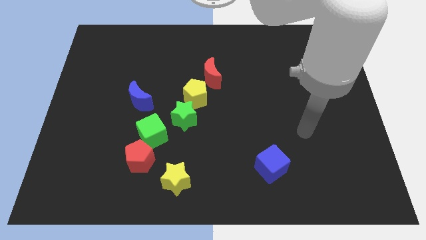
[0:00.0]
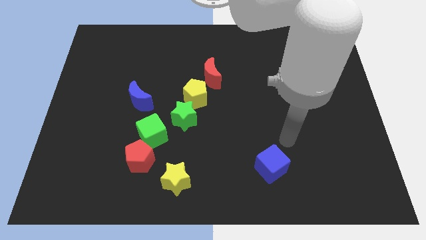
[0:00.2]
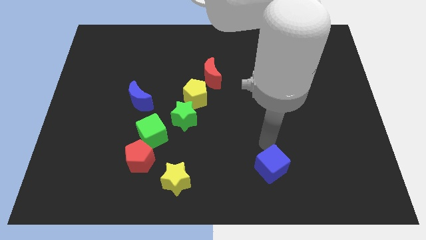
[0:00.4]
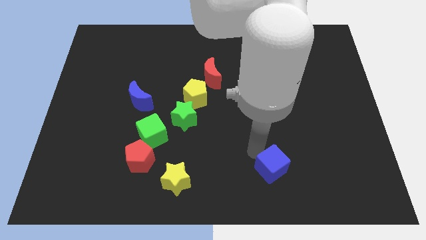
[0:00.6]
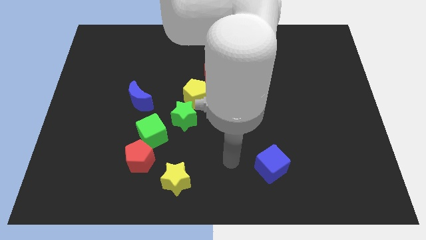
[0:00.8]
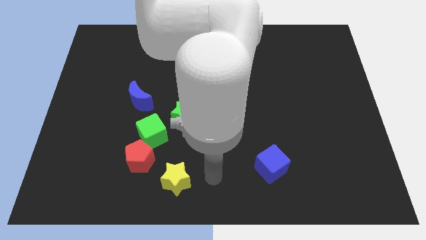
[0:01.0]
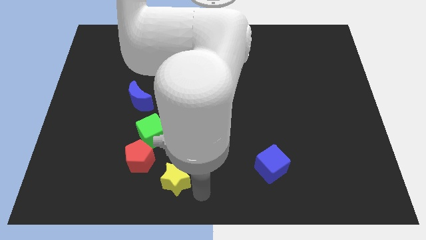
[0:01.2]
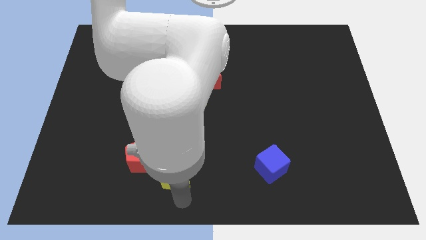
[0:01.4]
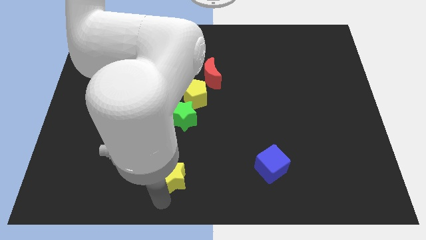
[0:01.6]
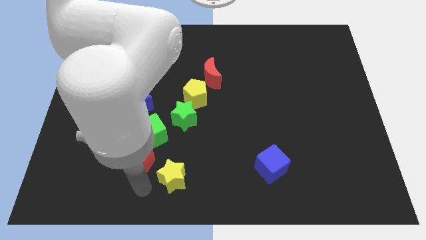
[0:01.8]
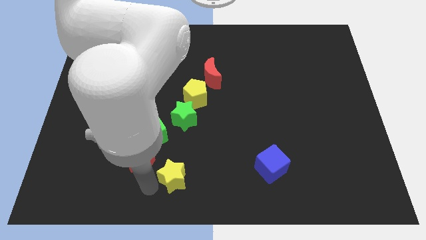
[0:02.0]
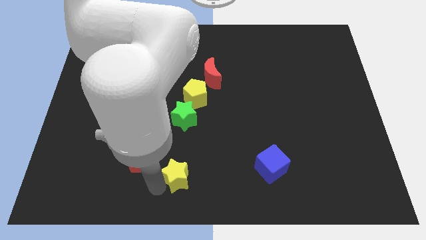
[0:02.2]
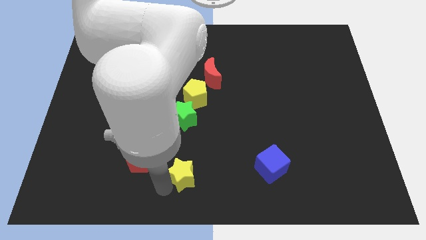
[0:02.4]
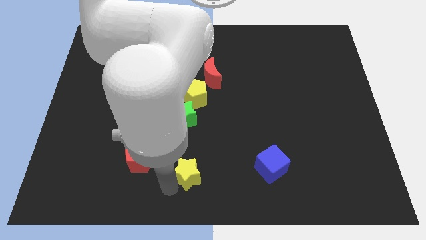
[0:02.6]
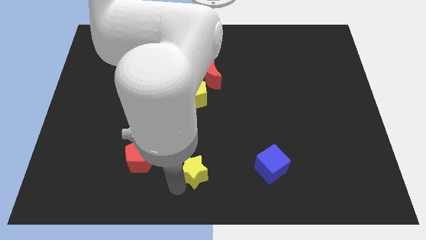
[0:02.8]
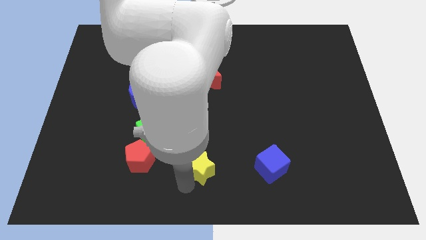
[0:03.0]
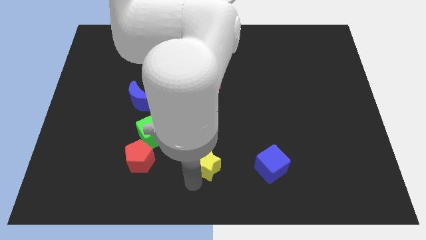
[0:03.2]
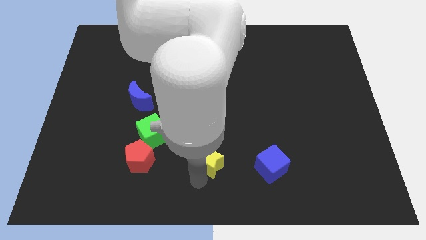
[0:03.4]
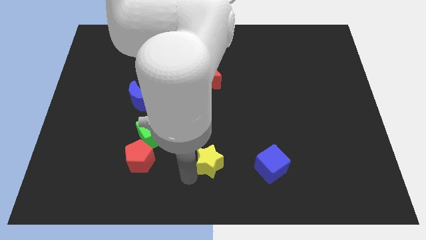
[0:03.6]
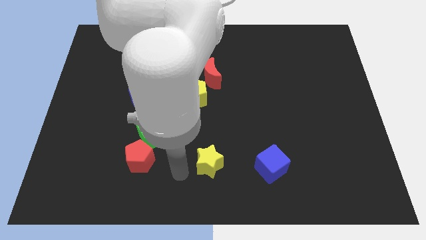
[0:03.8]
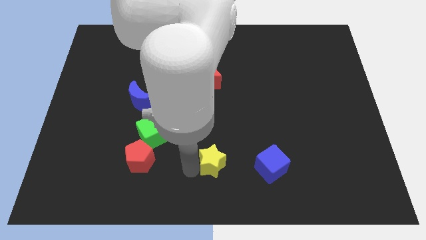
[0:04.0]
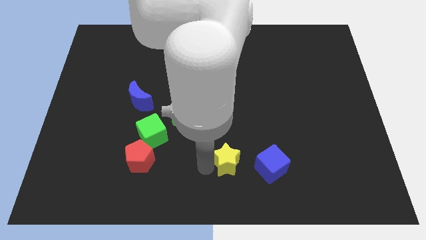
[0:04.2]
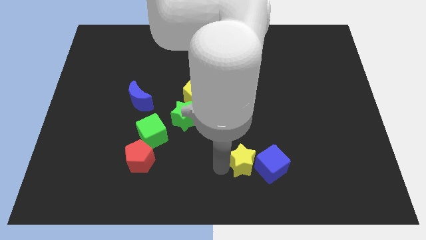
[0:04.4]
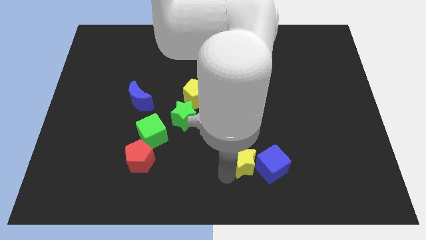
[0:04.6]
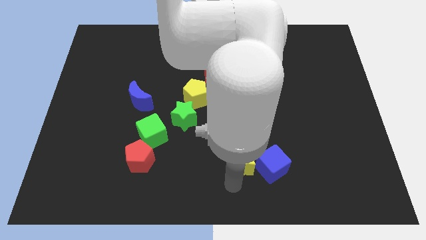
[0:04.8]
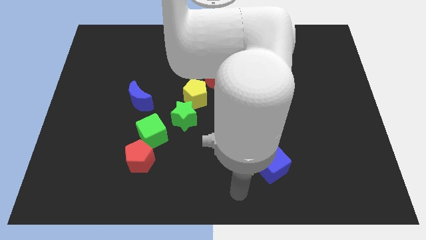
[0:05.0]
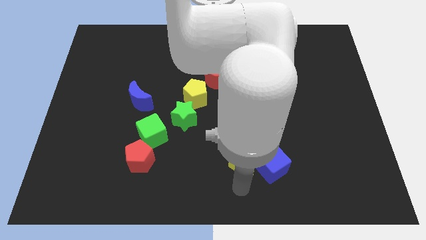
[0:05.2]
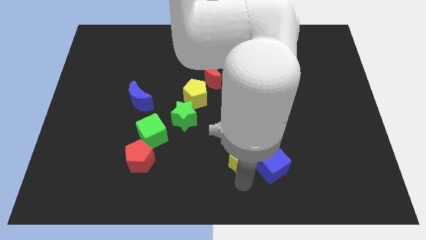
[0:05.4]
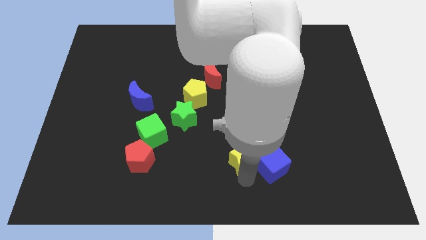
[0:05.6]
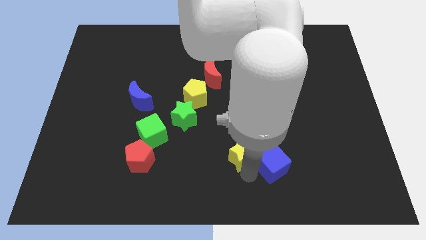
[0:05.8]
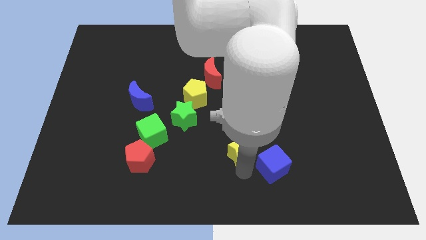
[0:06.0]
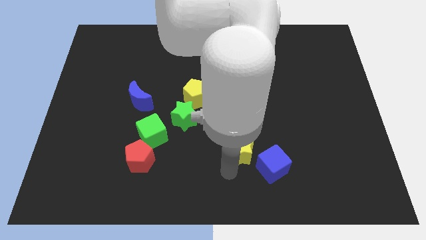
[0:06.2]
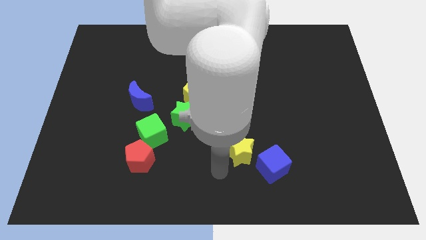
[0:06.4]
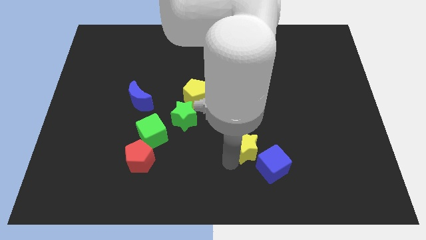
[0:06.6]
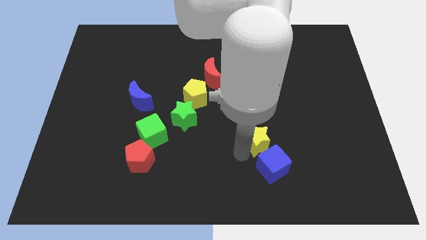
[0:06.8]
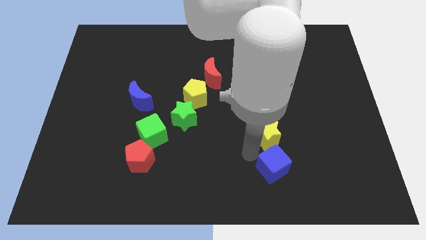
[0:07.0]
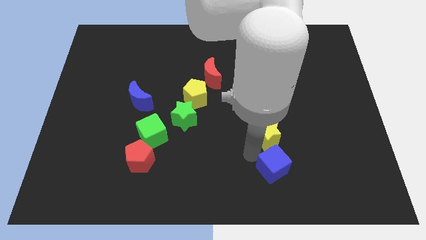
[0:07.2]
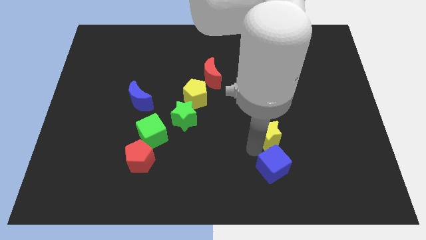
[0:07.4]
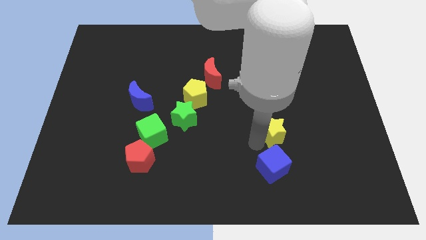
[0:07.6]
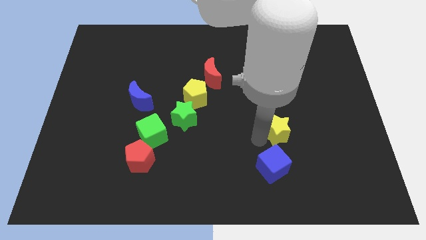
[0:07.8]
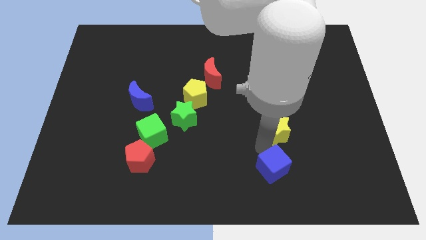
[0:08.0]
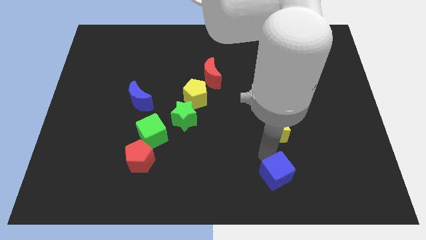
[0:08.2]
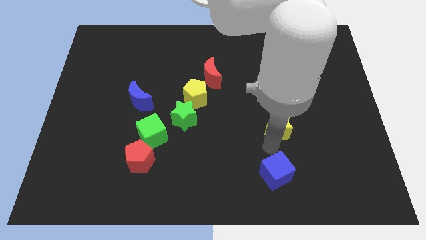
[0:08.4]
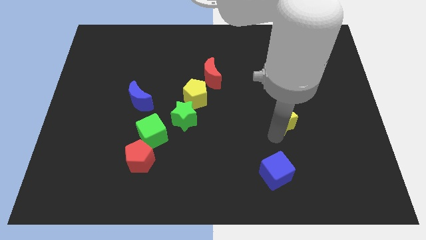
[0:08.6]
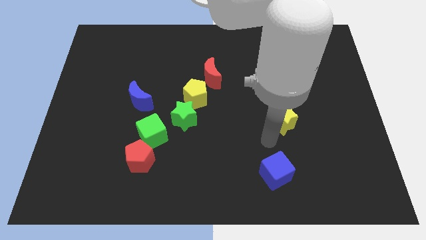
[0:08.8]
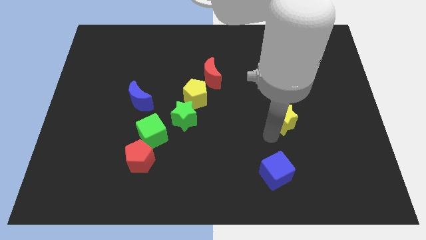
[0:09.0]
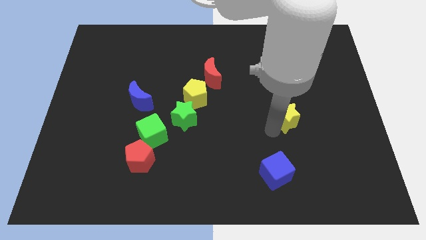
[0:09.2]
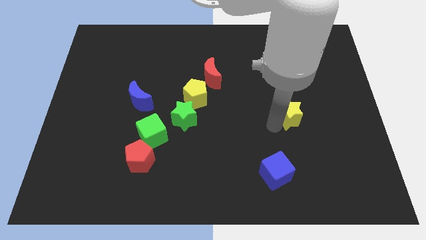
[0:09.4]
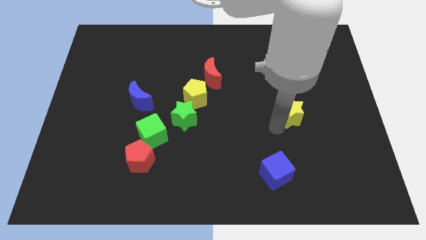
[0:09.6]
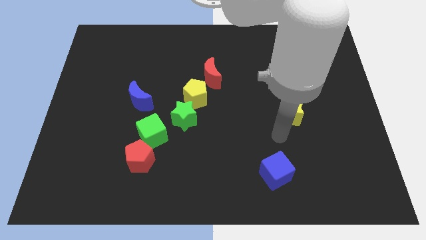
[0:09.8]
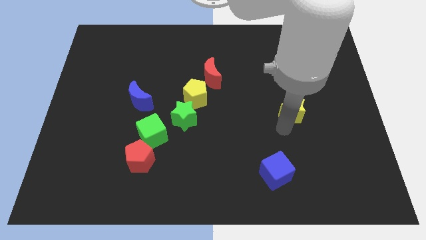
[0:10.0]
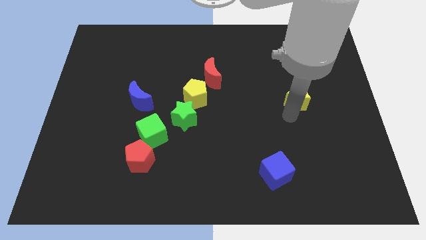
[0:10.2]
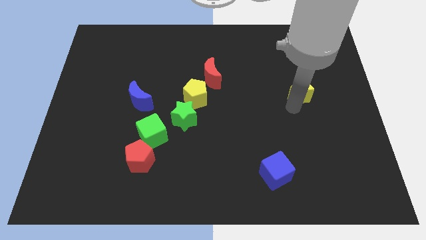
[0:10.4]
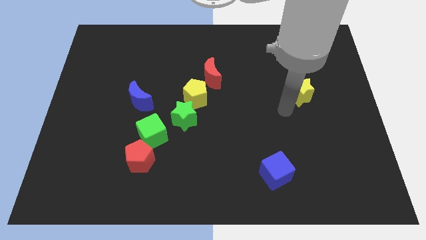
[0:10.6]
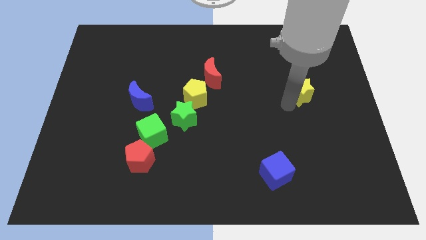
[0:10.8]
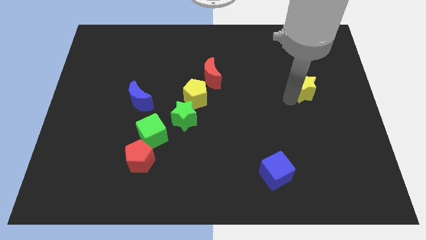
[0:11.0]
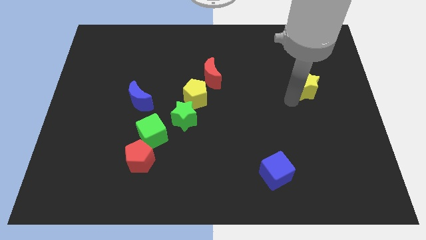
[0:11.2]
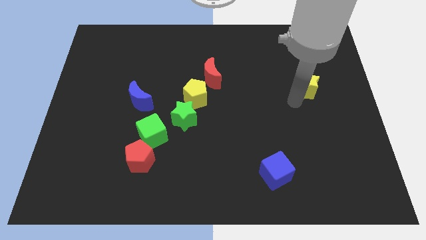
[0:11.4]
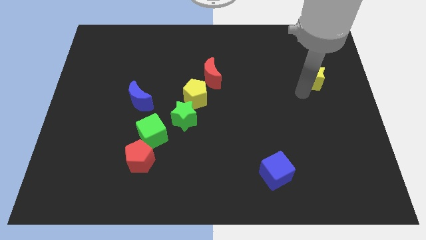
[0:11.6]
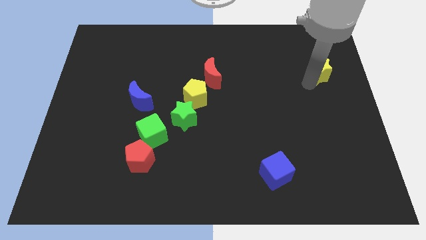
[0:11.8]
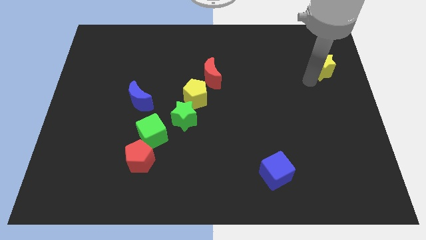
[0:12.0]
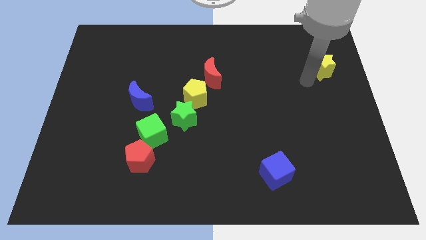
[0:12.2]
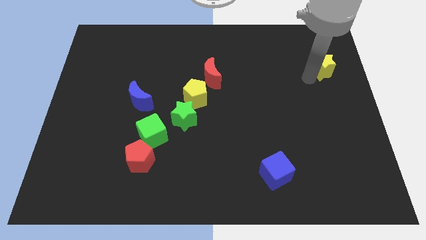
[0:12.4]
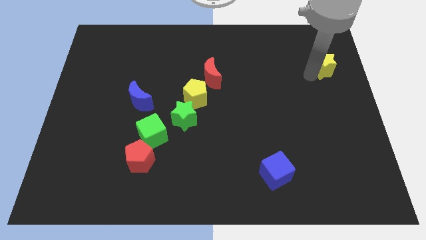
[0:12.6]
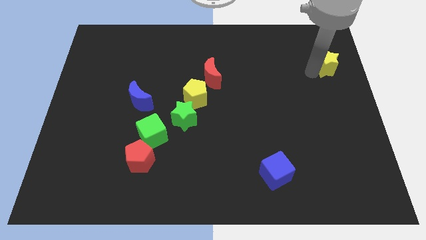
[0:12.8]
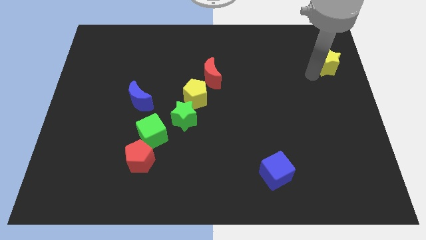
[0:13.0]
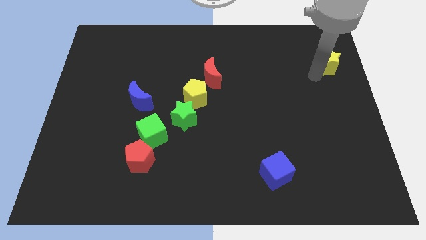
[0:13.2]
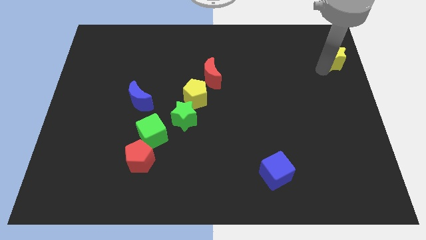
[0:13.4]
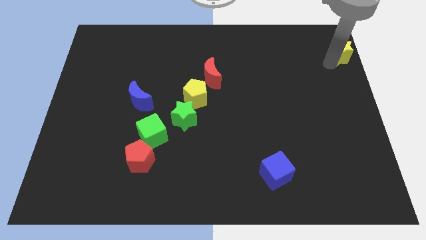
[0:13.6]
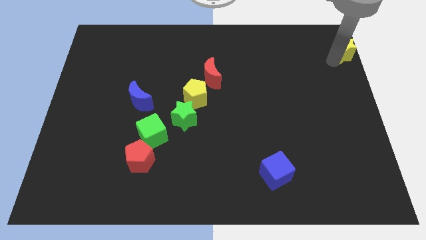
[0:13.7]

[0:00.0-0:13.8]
put the yellow star to the top right corner
